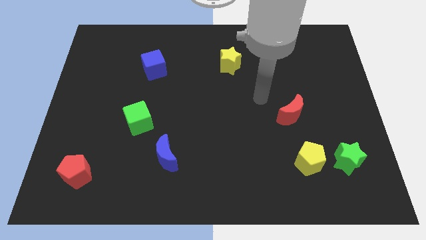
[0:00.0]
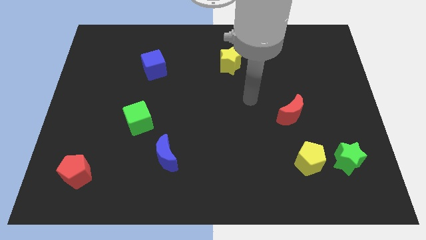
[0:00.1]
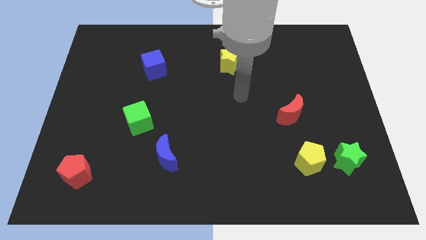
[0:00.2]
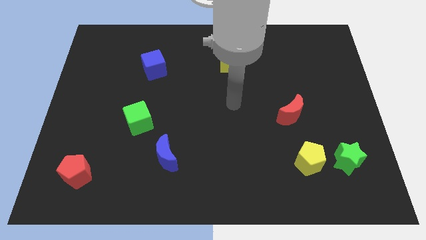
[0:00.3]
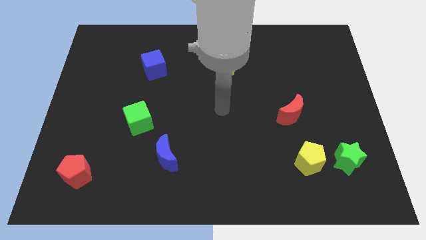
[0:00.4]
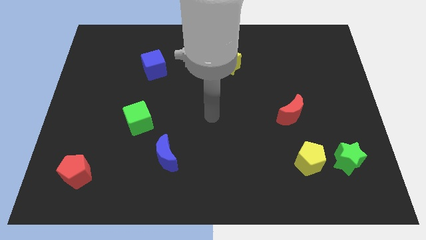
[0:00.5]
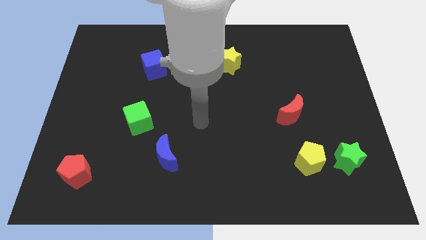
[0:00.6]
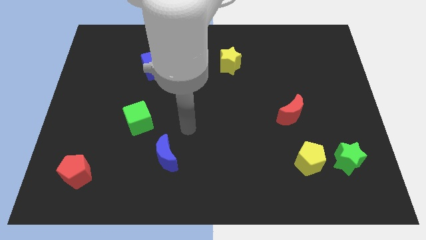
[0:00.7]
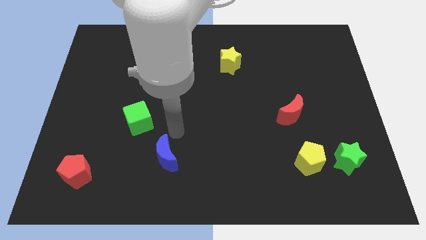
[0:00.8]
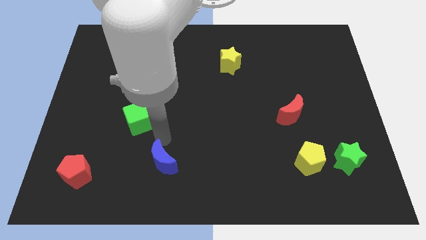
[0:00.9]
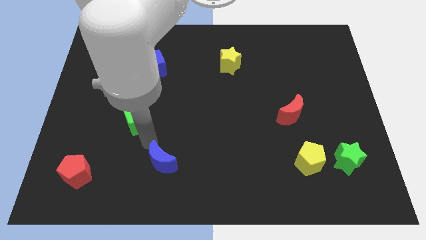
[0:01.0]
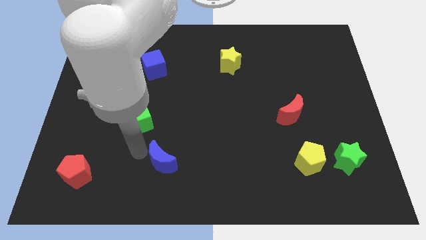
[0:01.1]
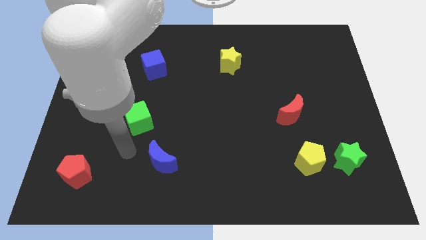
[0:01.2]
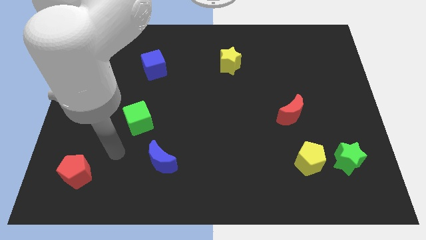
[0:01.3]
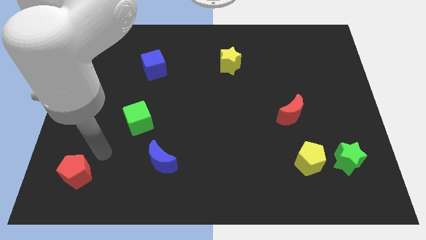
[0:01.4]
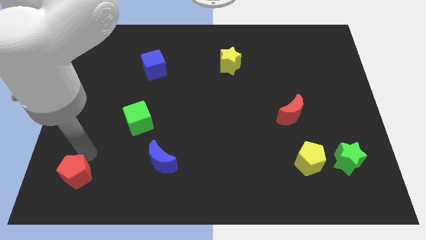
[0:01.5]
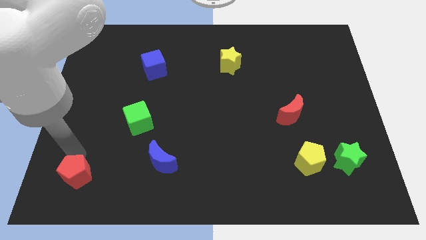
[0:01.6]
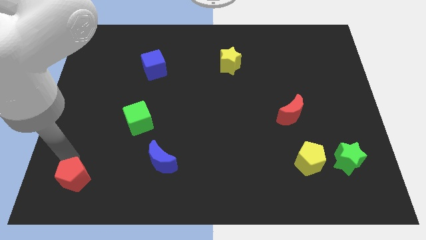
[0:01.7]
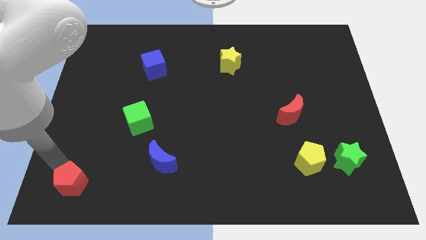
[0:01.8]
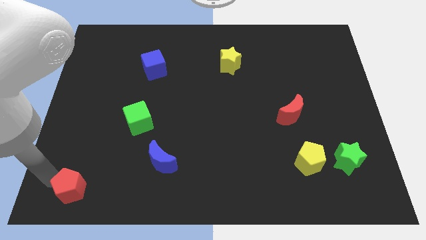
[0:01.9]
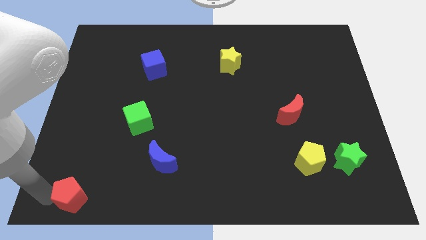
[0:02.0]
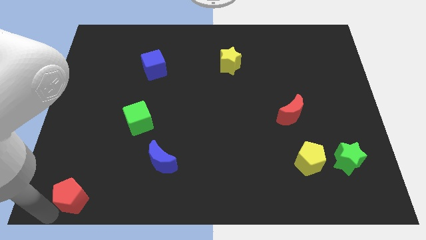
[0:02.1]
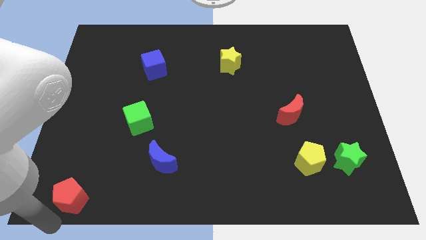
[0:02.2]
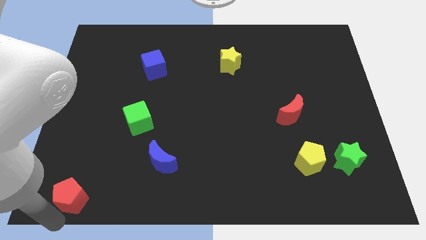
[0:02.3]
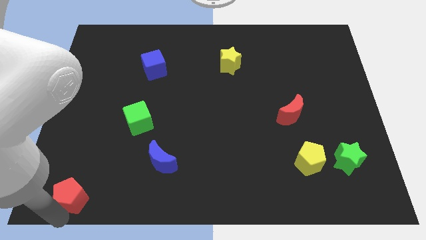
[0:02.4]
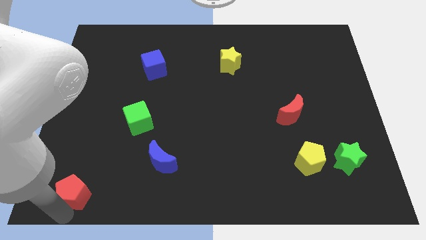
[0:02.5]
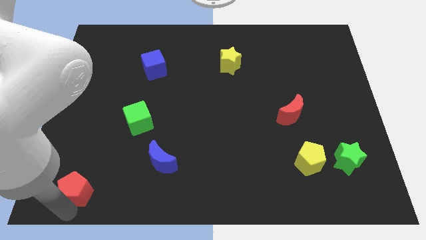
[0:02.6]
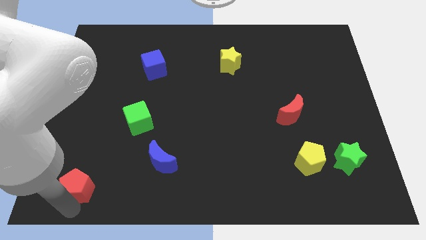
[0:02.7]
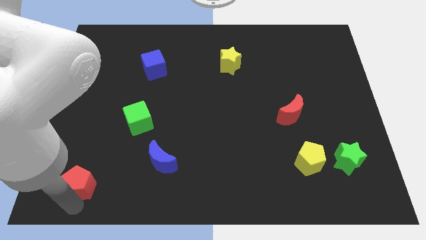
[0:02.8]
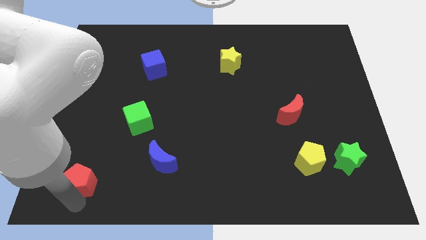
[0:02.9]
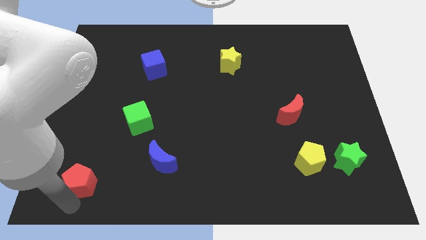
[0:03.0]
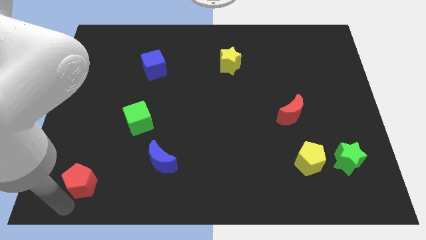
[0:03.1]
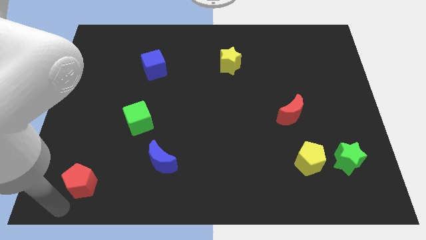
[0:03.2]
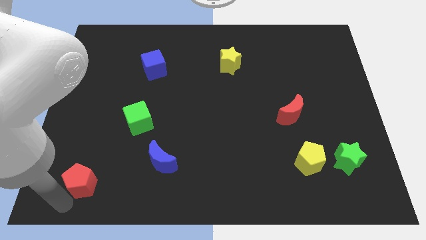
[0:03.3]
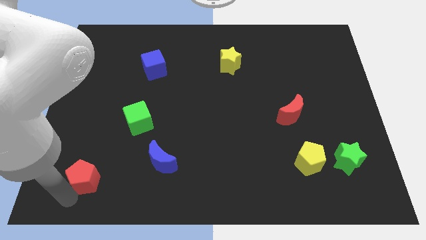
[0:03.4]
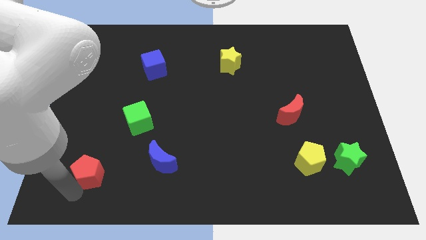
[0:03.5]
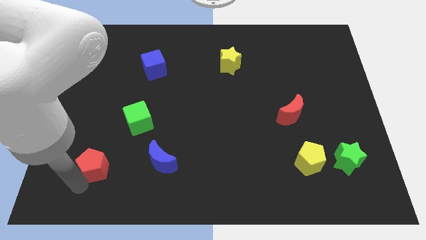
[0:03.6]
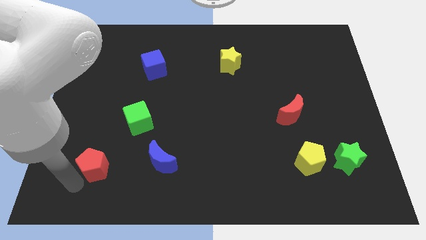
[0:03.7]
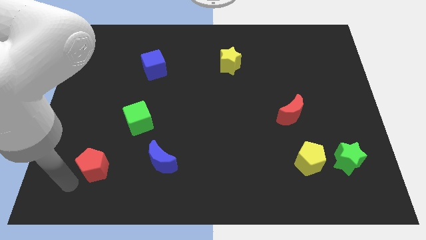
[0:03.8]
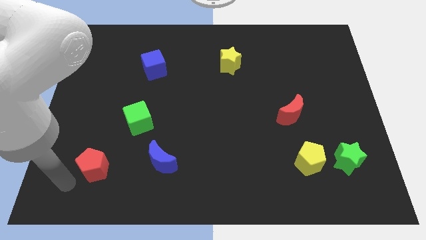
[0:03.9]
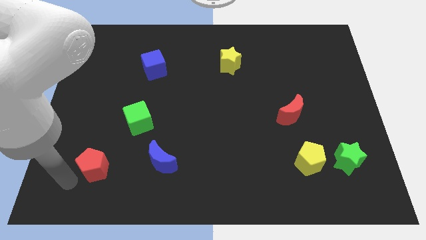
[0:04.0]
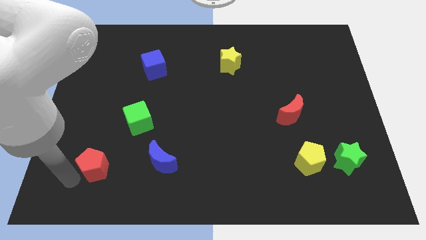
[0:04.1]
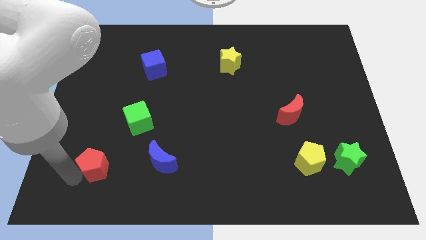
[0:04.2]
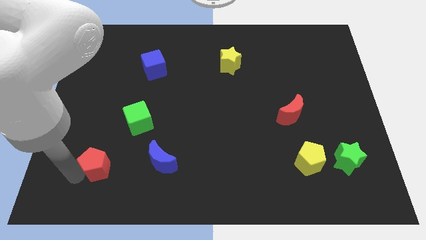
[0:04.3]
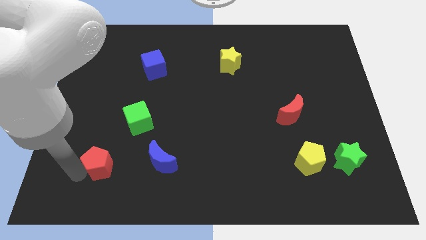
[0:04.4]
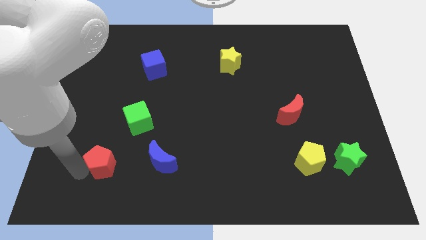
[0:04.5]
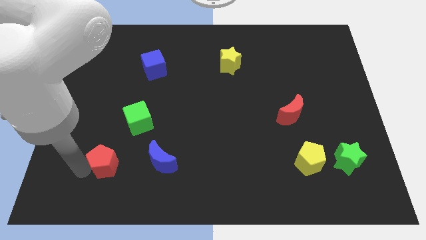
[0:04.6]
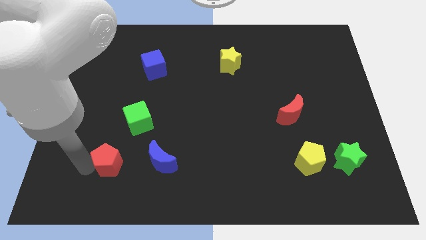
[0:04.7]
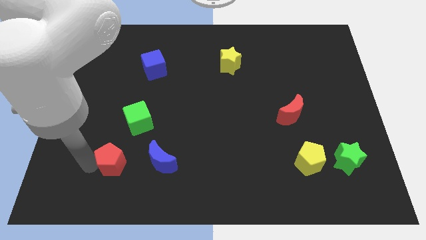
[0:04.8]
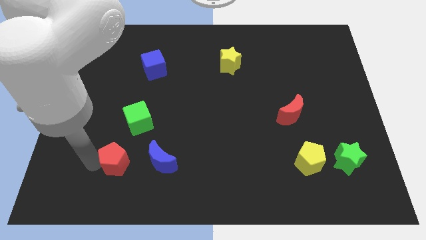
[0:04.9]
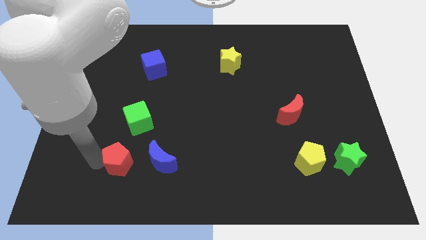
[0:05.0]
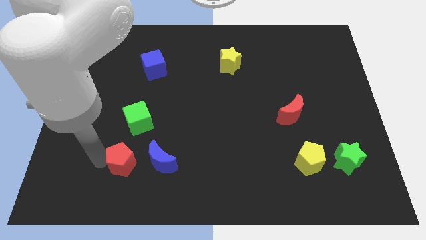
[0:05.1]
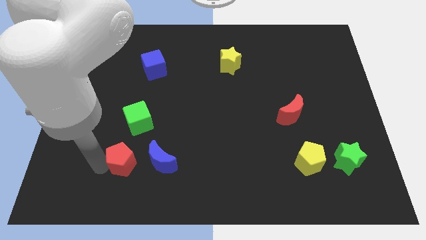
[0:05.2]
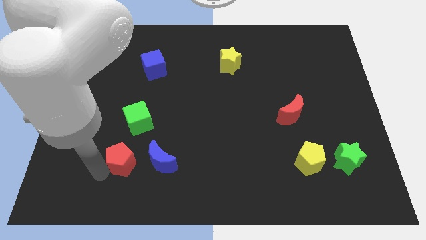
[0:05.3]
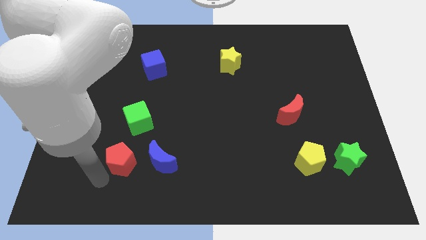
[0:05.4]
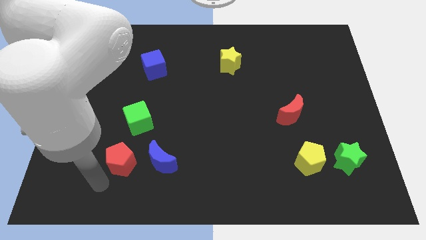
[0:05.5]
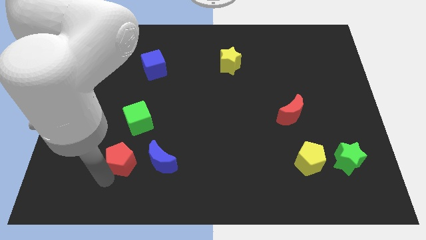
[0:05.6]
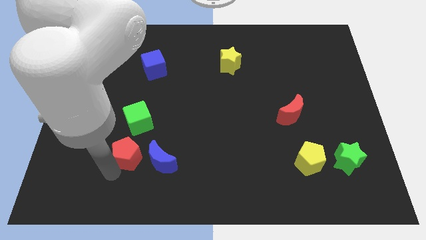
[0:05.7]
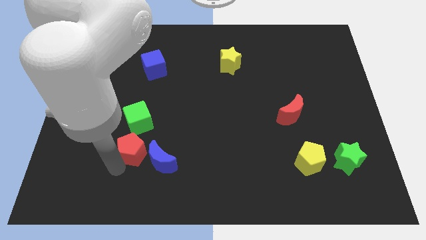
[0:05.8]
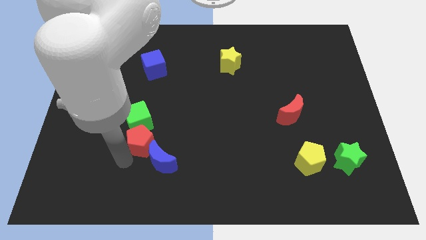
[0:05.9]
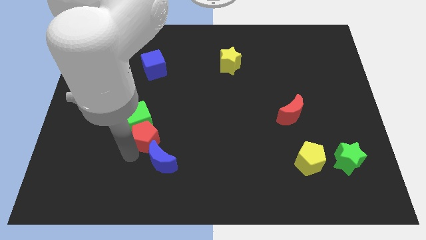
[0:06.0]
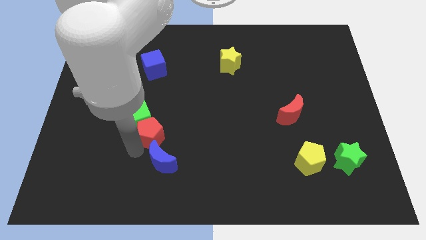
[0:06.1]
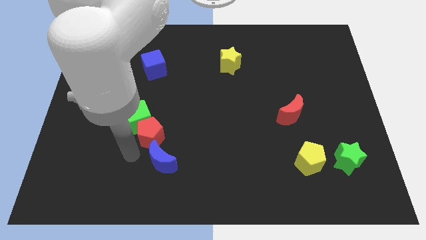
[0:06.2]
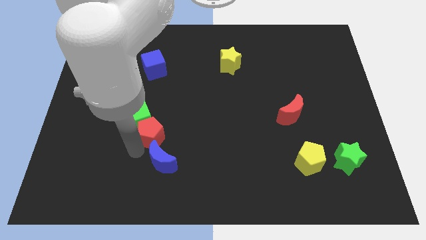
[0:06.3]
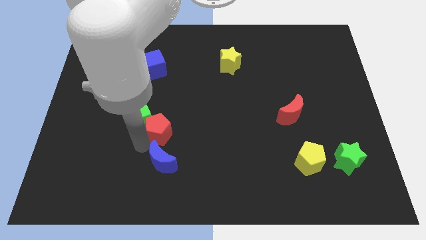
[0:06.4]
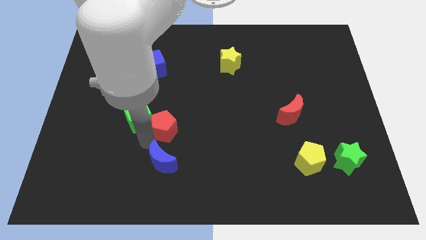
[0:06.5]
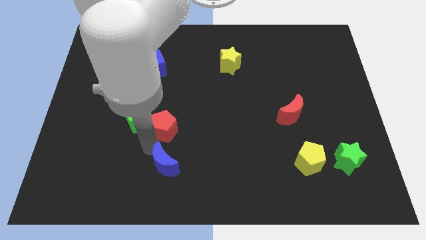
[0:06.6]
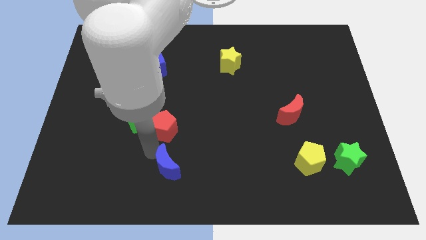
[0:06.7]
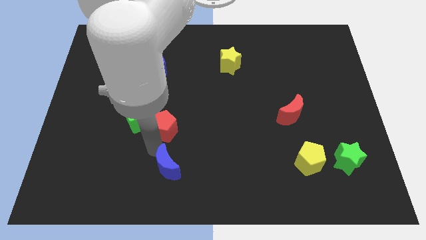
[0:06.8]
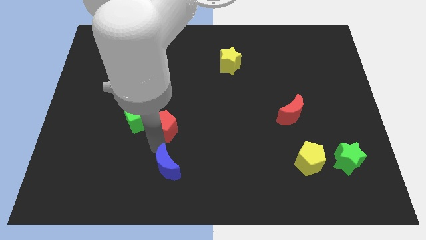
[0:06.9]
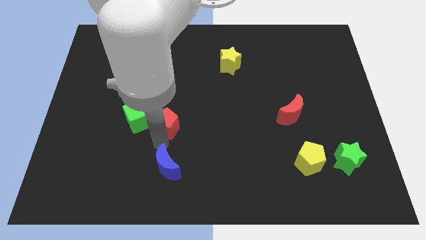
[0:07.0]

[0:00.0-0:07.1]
push the red pentagon diagonally up and to the right

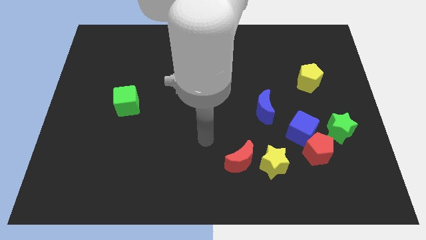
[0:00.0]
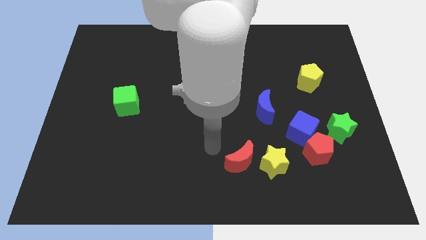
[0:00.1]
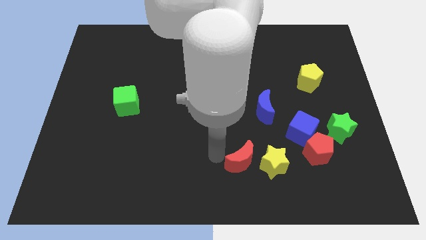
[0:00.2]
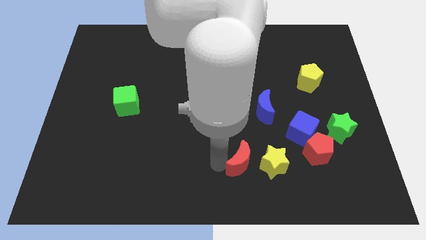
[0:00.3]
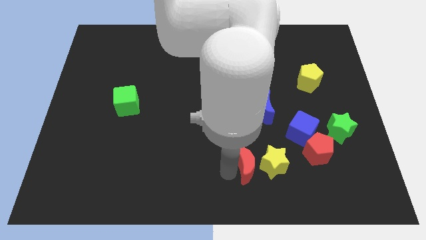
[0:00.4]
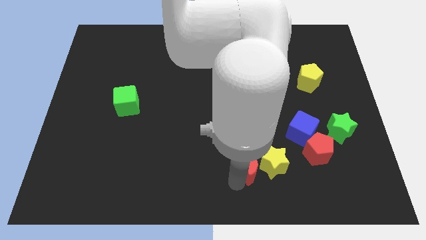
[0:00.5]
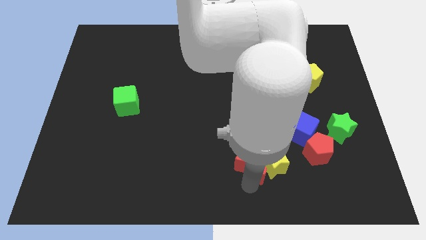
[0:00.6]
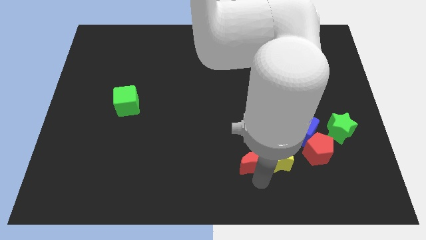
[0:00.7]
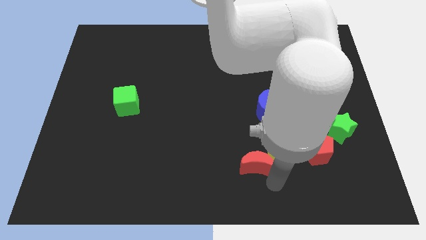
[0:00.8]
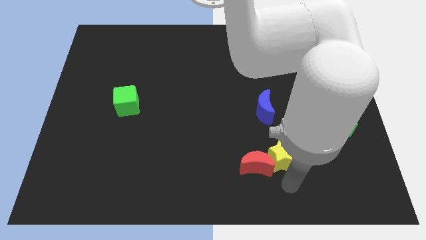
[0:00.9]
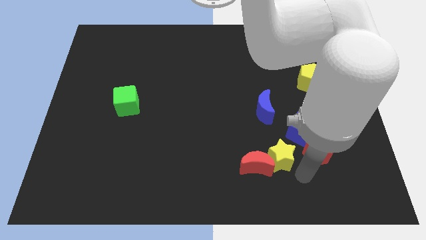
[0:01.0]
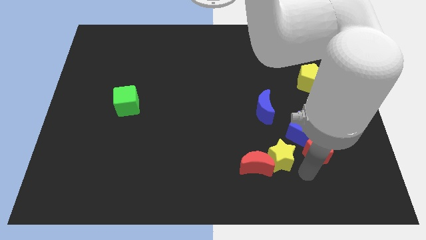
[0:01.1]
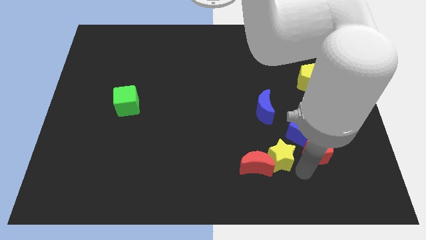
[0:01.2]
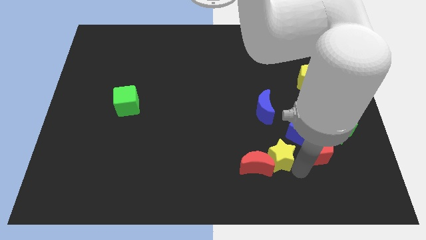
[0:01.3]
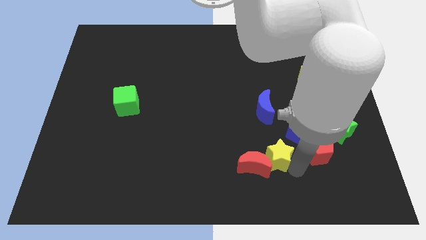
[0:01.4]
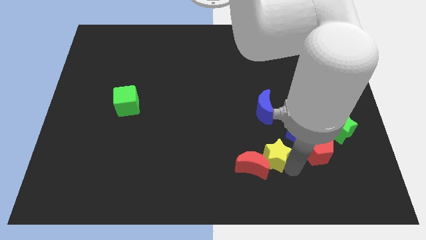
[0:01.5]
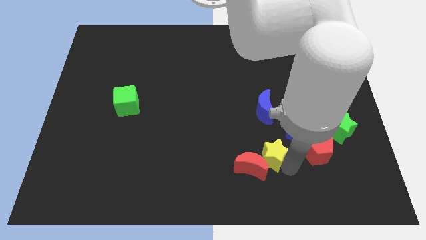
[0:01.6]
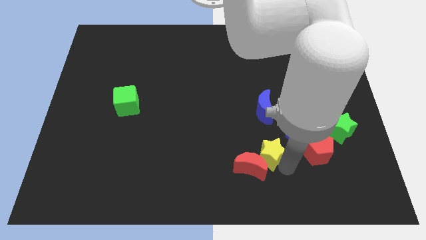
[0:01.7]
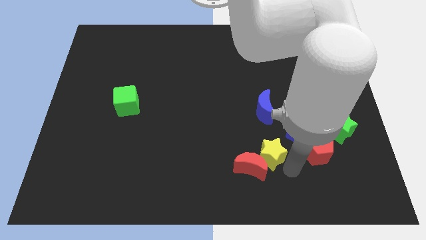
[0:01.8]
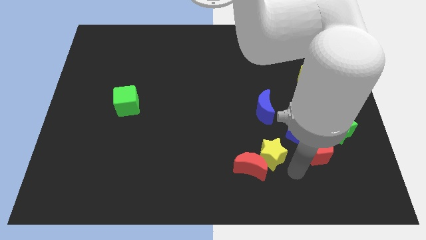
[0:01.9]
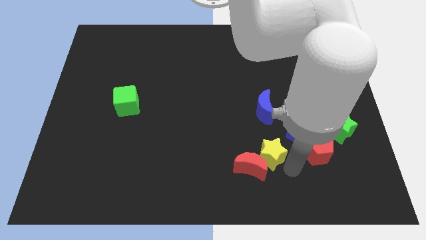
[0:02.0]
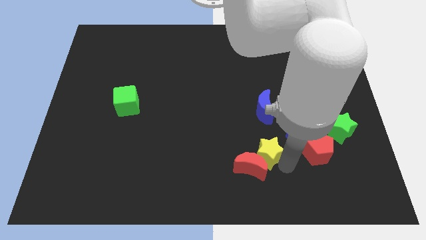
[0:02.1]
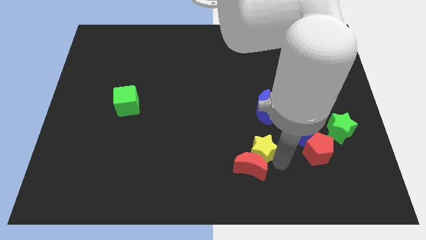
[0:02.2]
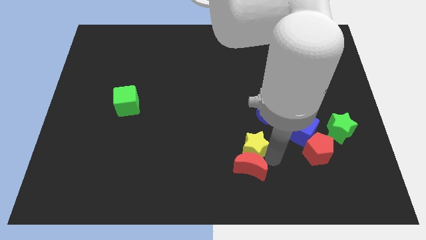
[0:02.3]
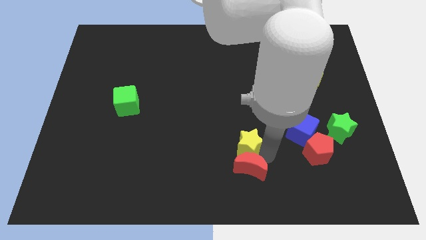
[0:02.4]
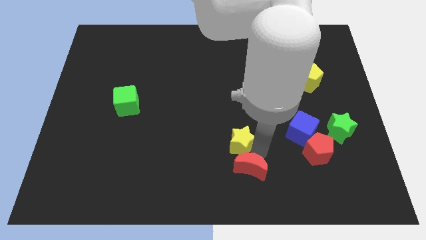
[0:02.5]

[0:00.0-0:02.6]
slide the yellow star diagonally upwards and to the left a bit
